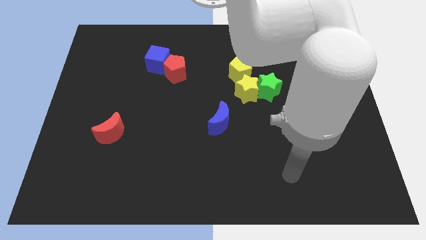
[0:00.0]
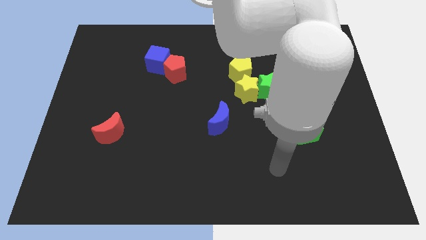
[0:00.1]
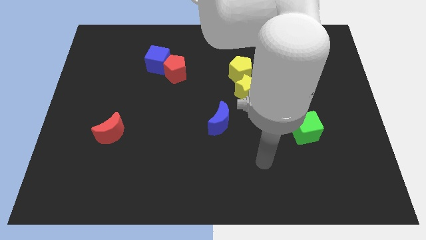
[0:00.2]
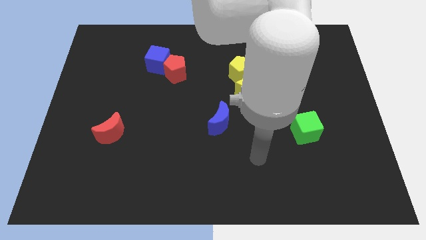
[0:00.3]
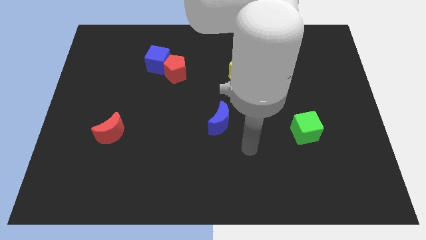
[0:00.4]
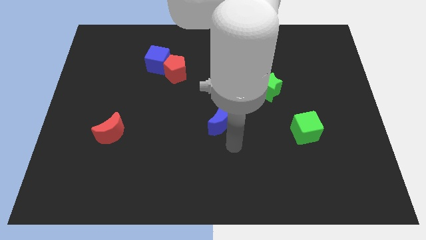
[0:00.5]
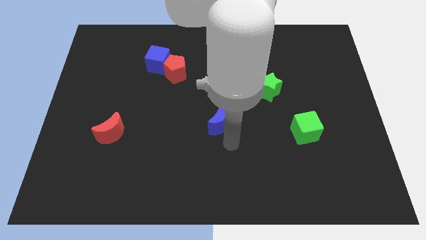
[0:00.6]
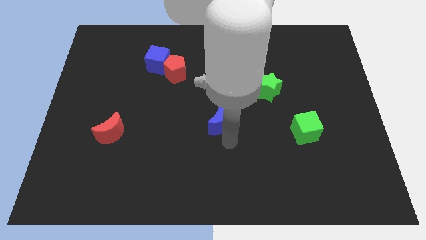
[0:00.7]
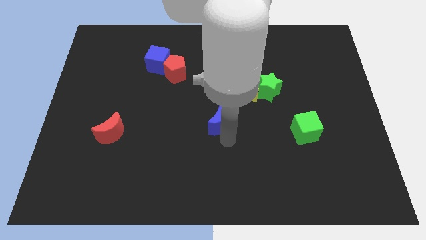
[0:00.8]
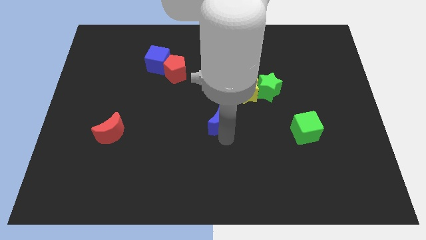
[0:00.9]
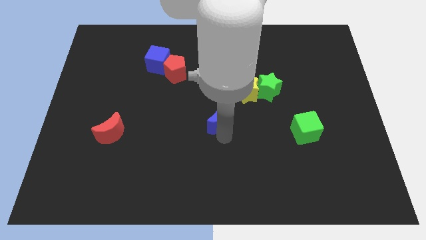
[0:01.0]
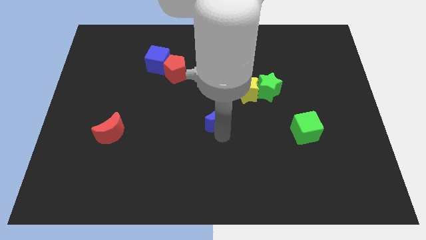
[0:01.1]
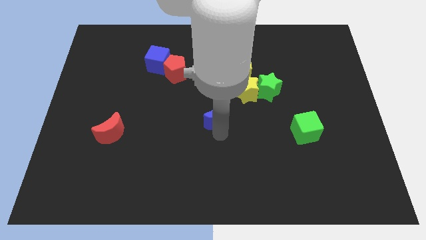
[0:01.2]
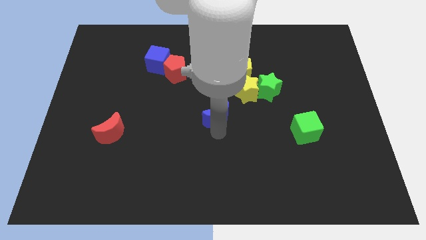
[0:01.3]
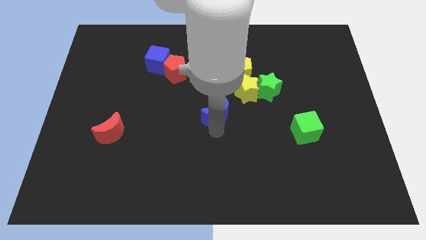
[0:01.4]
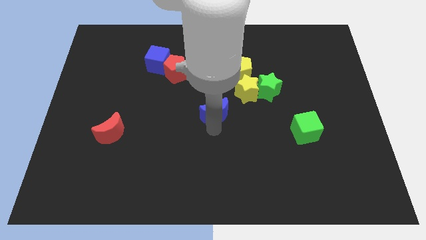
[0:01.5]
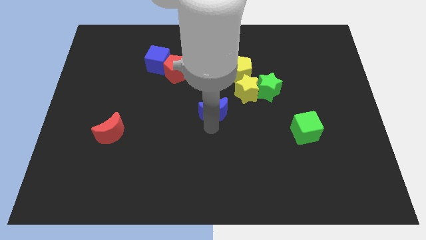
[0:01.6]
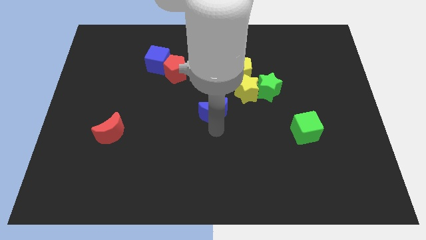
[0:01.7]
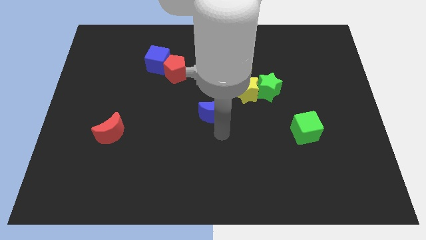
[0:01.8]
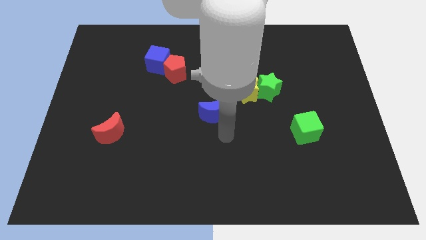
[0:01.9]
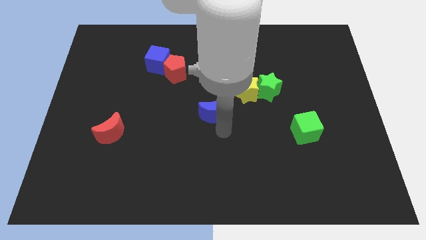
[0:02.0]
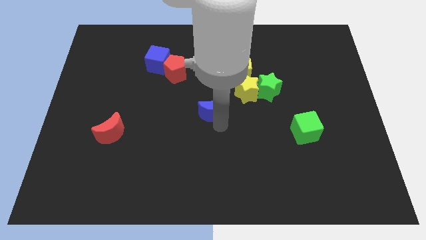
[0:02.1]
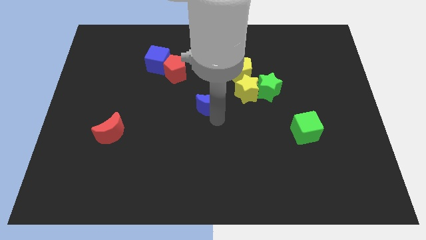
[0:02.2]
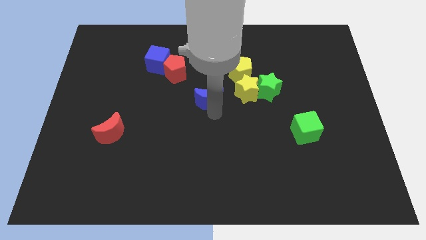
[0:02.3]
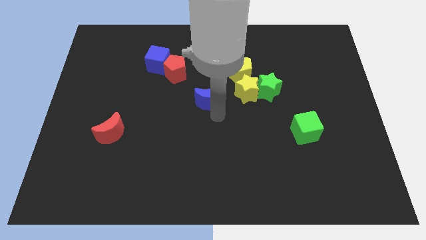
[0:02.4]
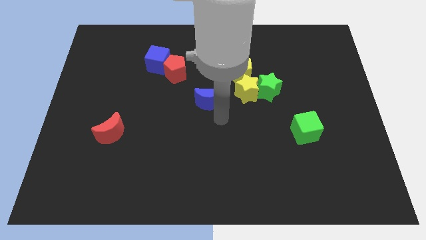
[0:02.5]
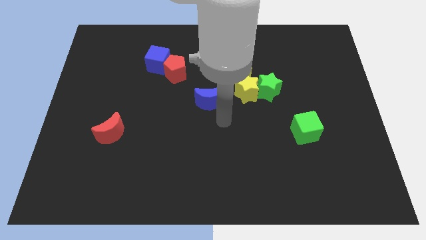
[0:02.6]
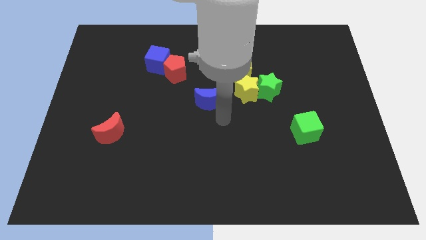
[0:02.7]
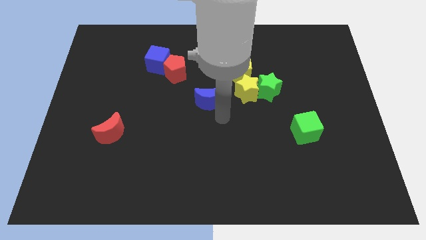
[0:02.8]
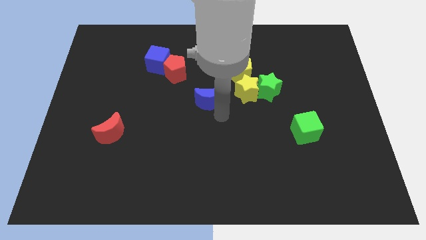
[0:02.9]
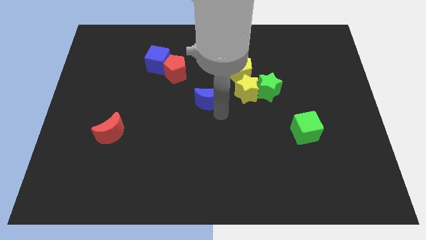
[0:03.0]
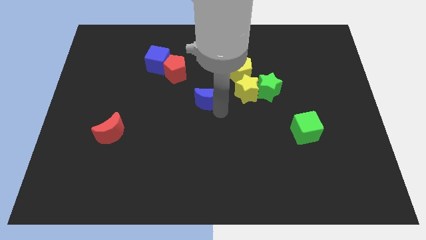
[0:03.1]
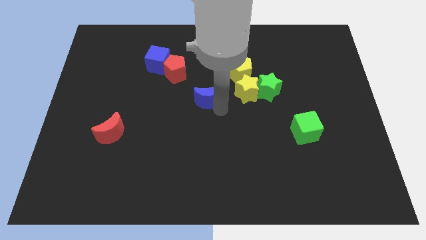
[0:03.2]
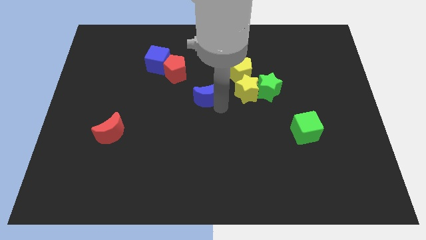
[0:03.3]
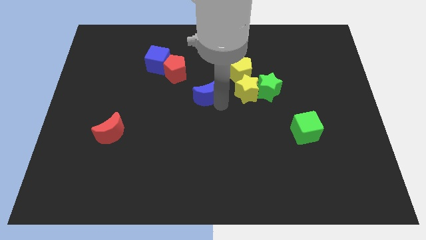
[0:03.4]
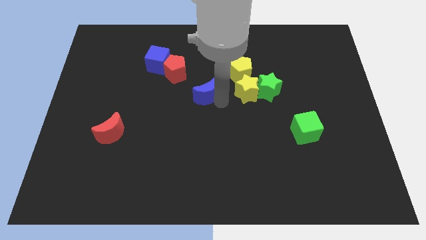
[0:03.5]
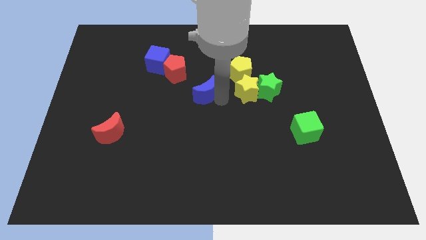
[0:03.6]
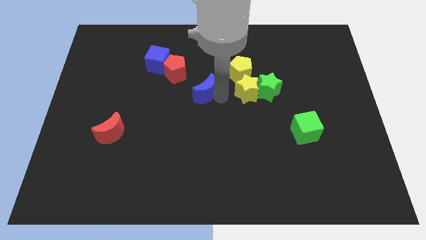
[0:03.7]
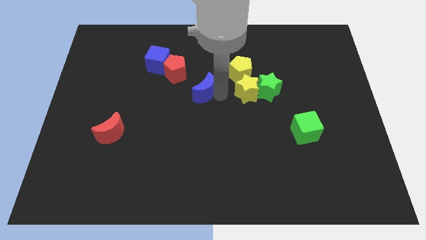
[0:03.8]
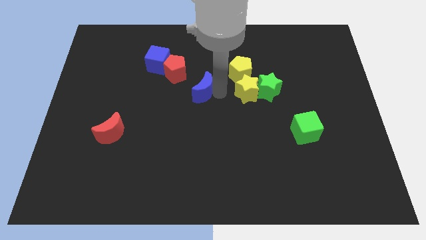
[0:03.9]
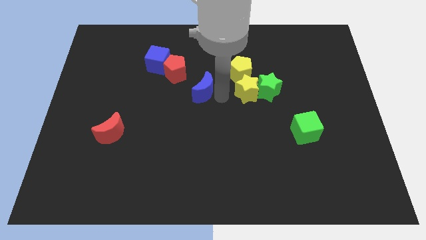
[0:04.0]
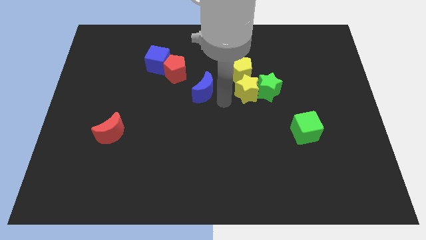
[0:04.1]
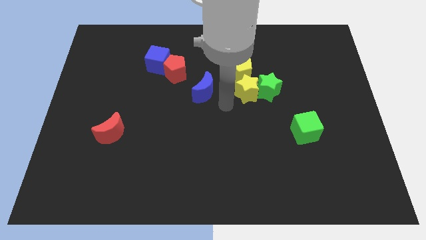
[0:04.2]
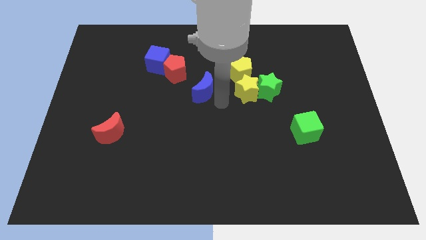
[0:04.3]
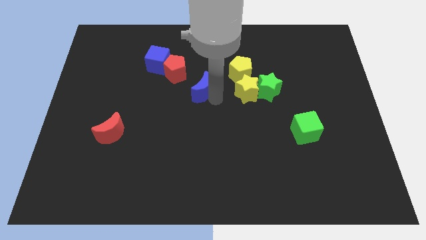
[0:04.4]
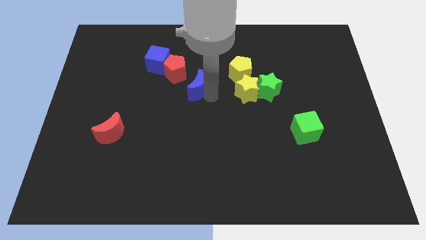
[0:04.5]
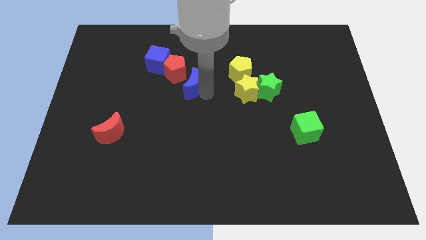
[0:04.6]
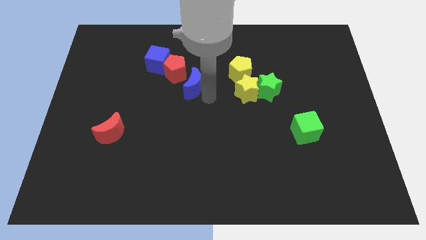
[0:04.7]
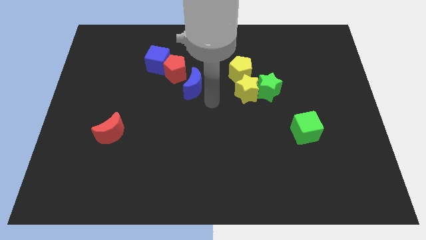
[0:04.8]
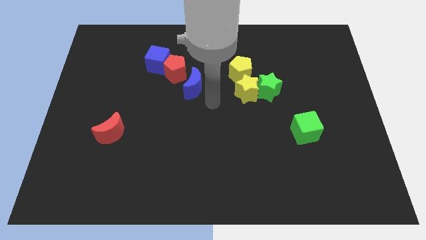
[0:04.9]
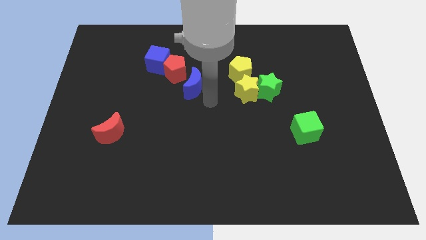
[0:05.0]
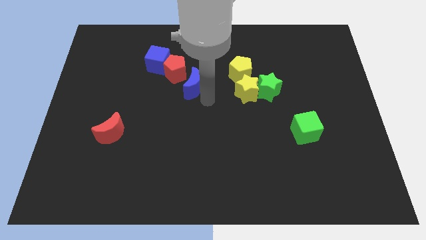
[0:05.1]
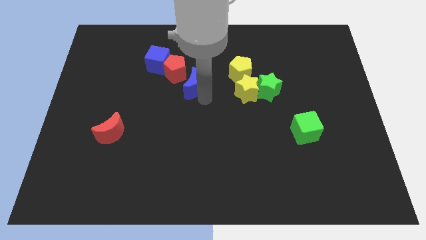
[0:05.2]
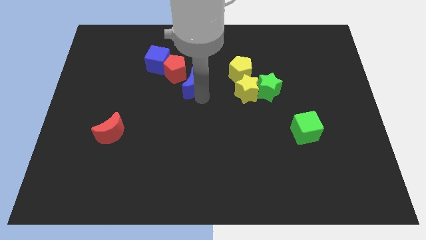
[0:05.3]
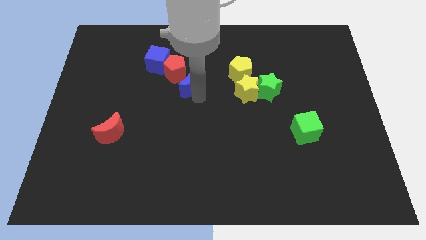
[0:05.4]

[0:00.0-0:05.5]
put the blue moon to the red pentagon

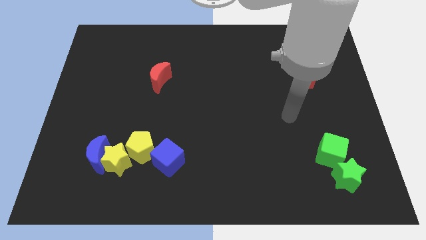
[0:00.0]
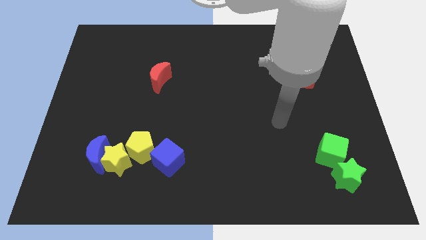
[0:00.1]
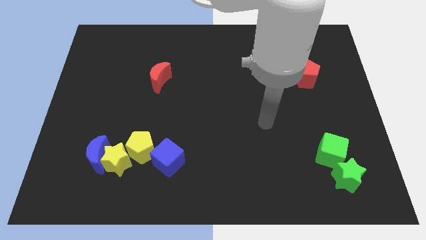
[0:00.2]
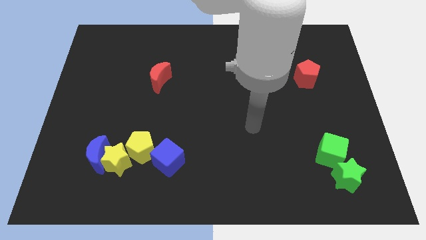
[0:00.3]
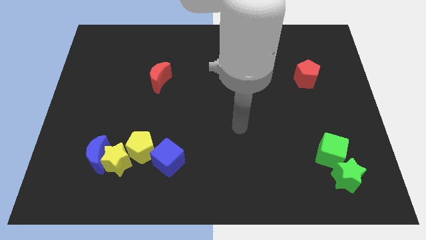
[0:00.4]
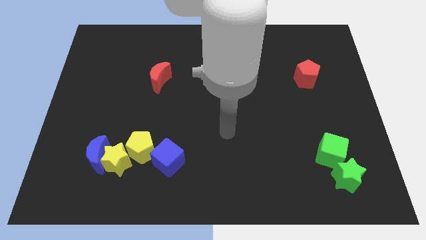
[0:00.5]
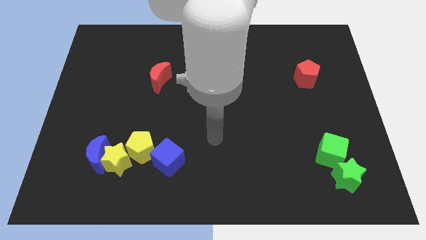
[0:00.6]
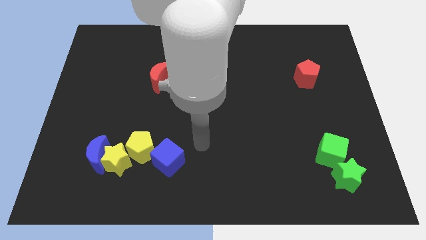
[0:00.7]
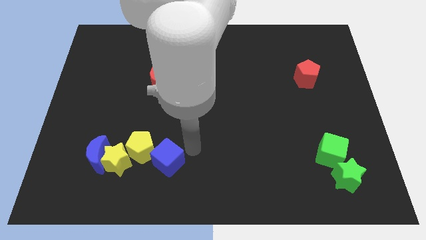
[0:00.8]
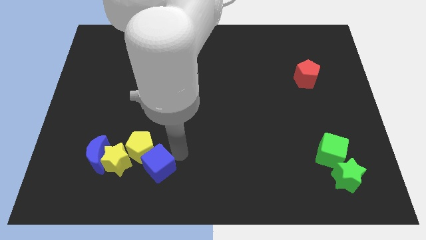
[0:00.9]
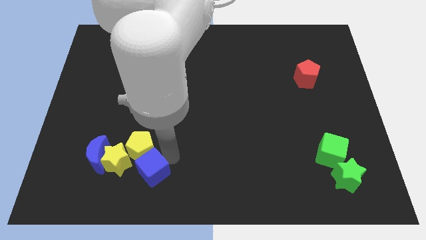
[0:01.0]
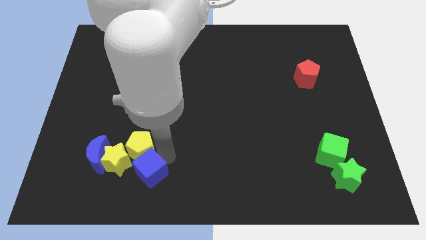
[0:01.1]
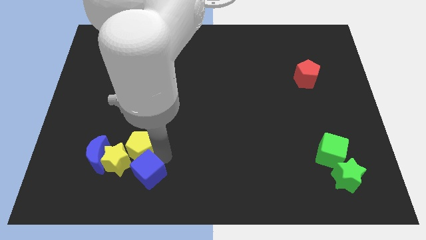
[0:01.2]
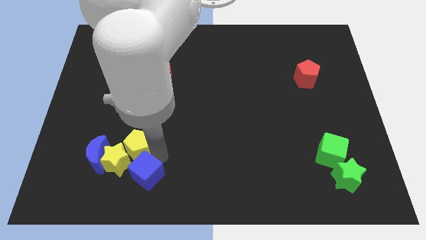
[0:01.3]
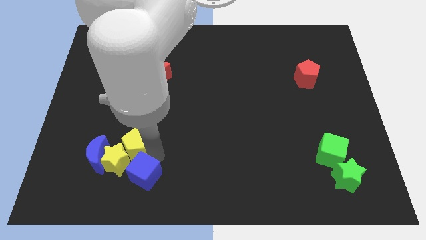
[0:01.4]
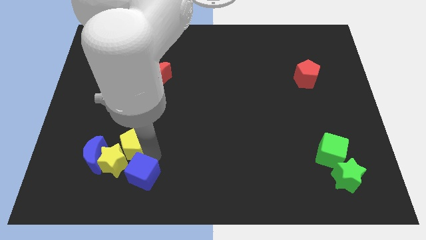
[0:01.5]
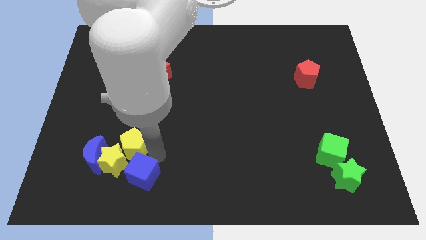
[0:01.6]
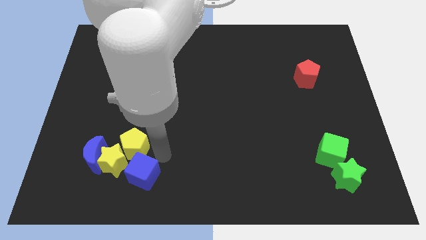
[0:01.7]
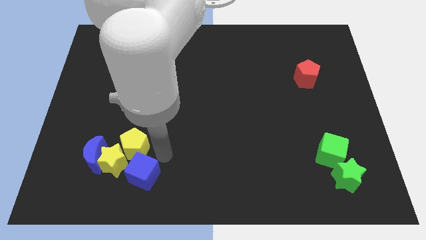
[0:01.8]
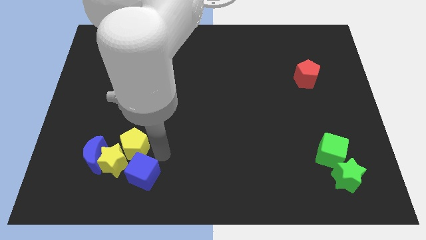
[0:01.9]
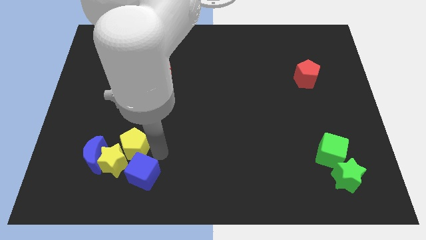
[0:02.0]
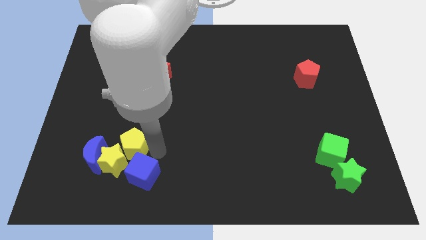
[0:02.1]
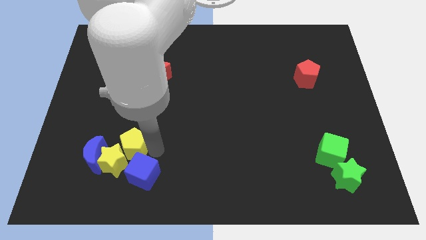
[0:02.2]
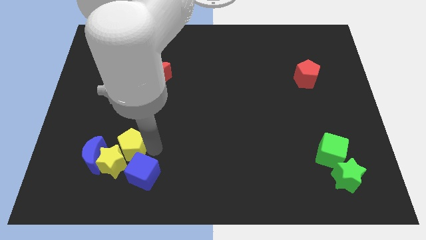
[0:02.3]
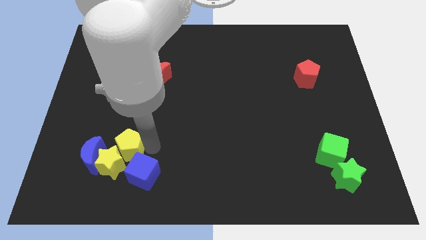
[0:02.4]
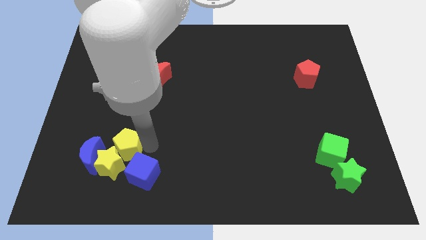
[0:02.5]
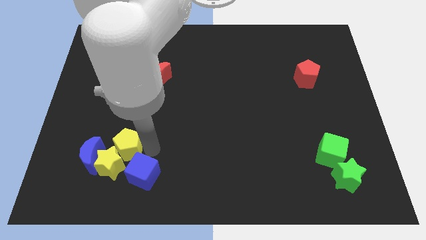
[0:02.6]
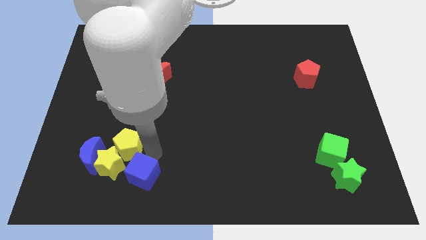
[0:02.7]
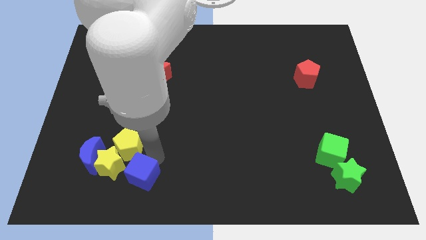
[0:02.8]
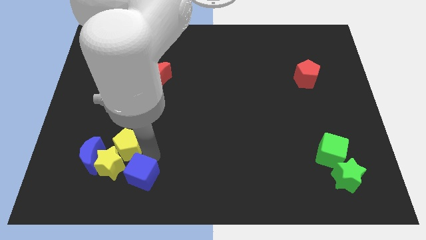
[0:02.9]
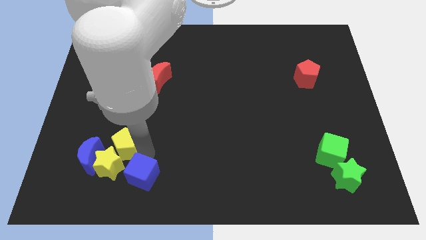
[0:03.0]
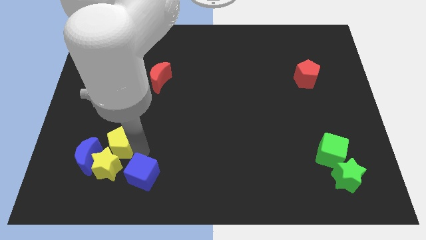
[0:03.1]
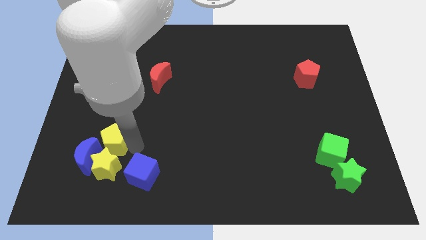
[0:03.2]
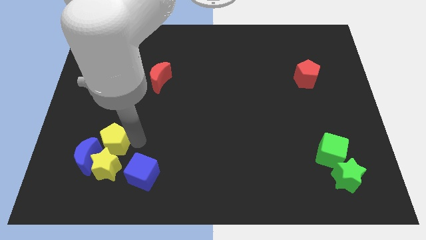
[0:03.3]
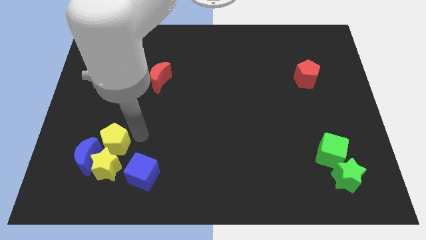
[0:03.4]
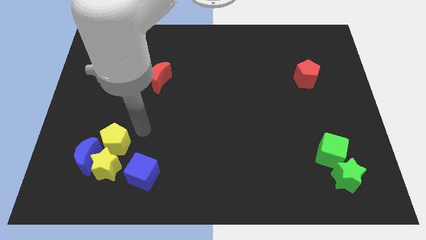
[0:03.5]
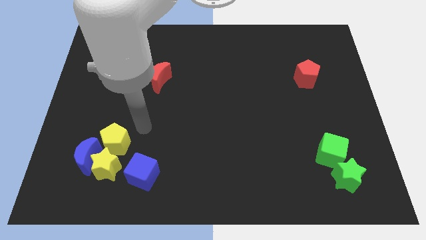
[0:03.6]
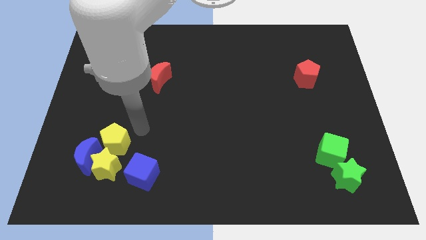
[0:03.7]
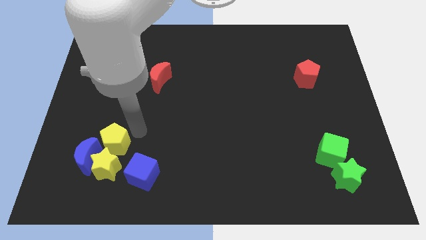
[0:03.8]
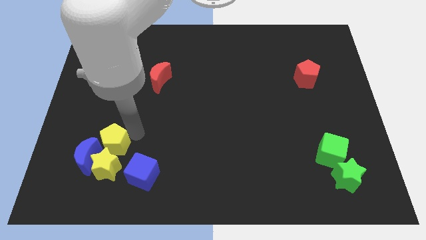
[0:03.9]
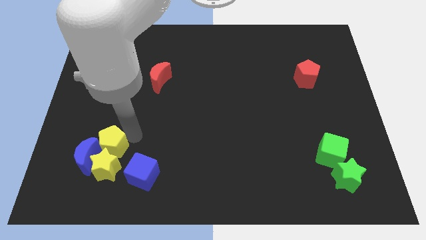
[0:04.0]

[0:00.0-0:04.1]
slide the yellow pentagon close to the blue moon
